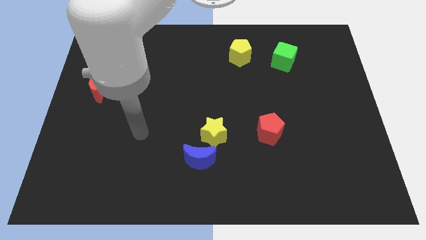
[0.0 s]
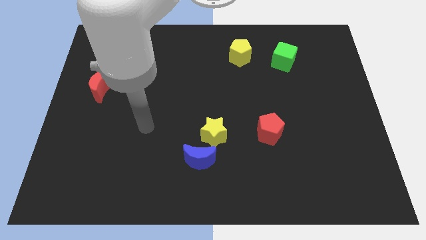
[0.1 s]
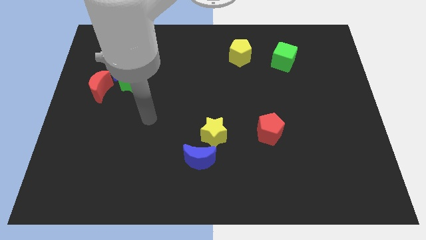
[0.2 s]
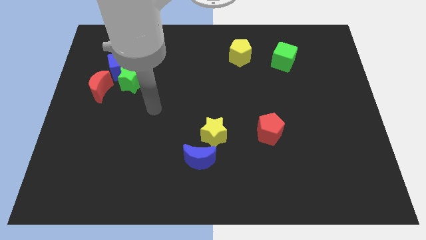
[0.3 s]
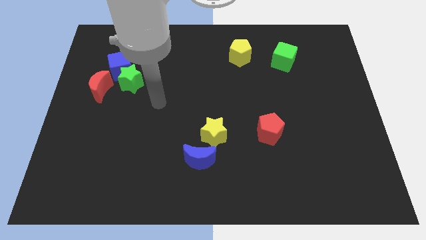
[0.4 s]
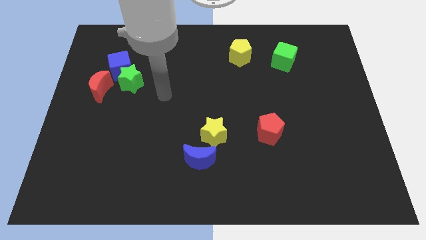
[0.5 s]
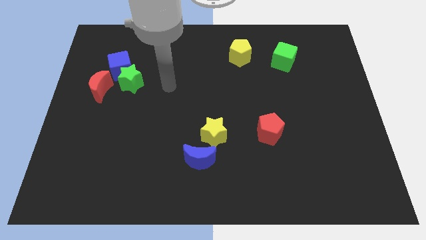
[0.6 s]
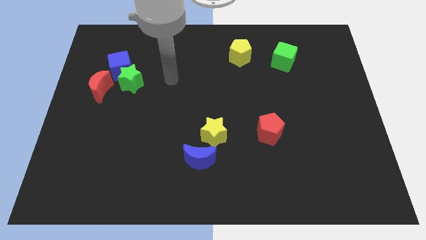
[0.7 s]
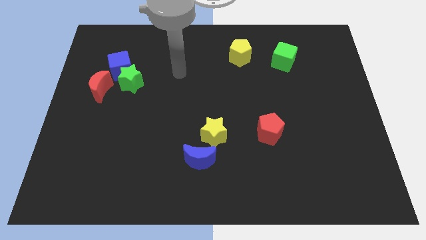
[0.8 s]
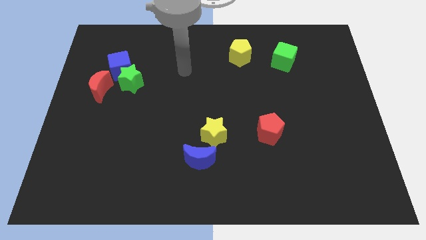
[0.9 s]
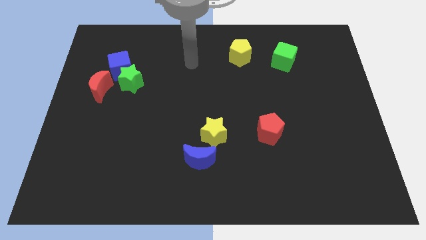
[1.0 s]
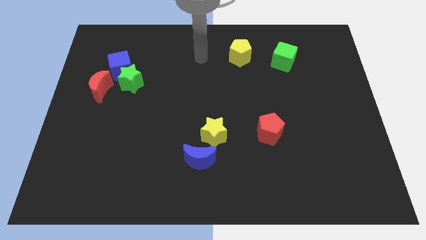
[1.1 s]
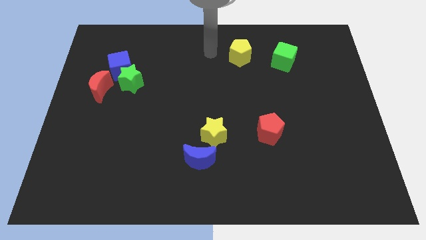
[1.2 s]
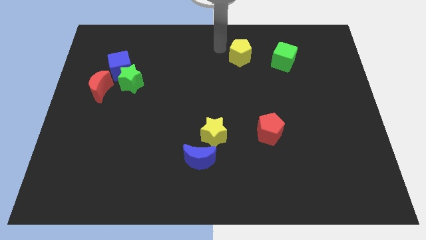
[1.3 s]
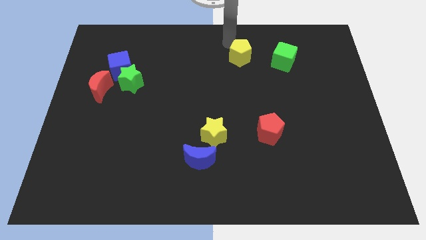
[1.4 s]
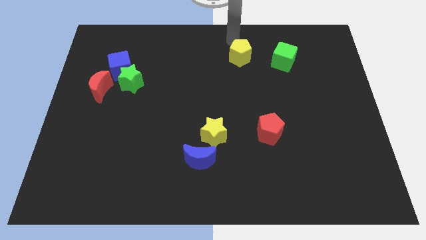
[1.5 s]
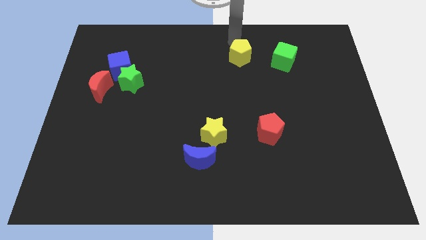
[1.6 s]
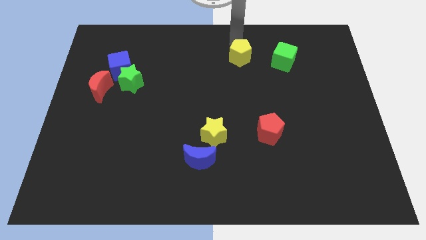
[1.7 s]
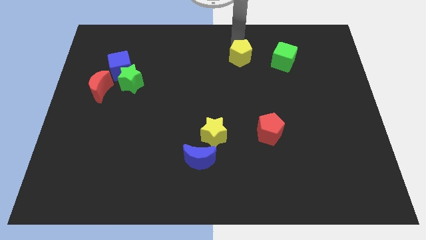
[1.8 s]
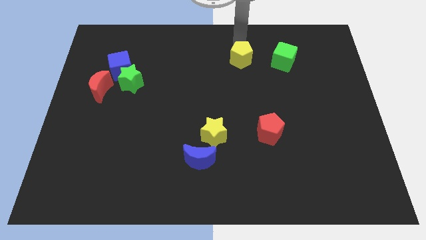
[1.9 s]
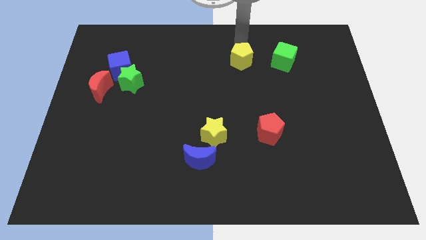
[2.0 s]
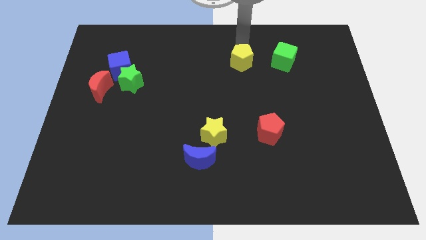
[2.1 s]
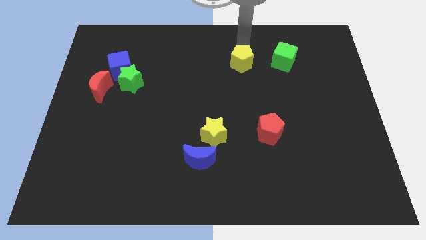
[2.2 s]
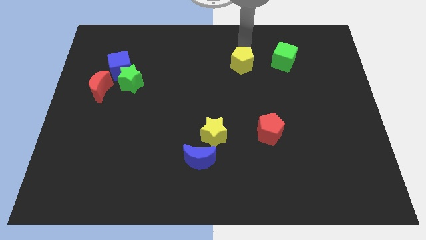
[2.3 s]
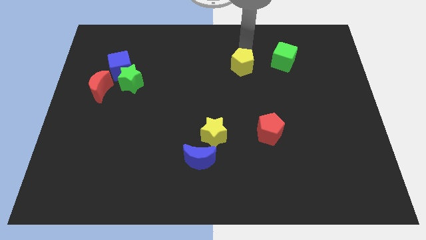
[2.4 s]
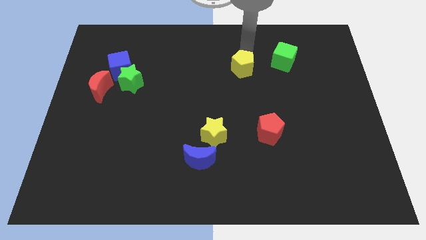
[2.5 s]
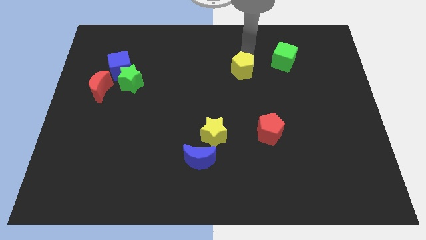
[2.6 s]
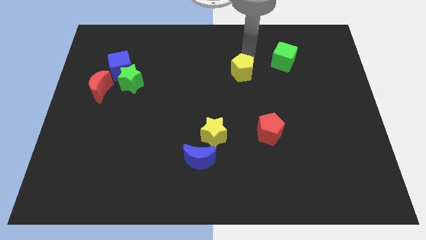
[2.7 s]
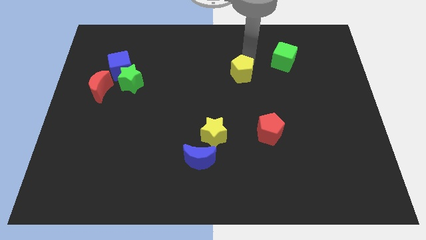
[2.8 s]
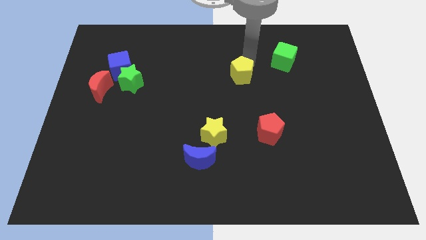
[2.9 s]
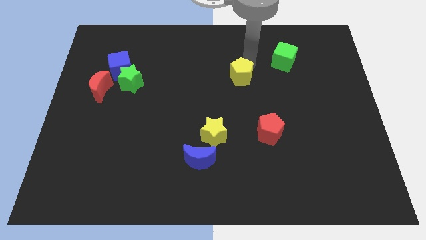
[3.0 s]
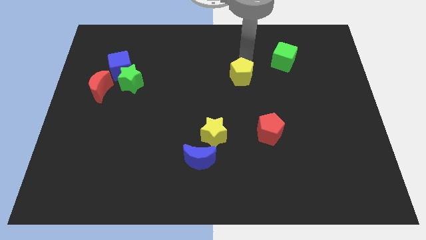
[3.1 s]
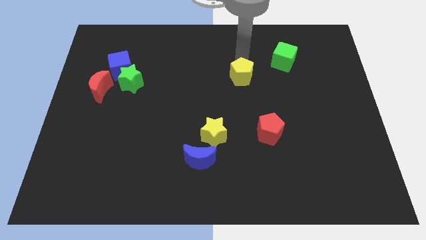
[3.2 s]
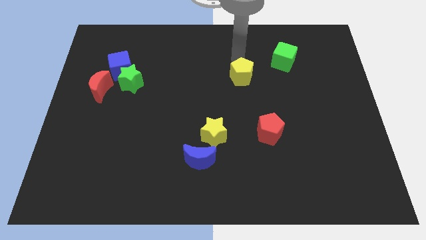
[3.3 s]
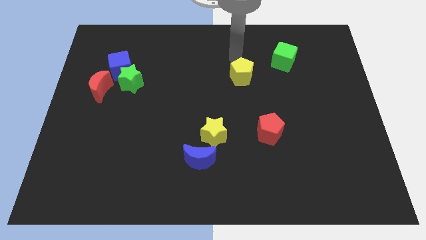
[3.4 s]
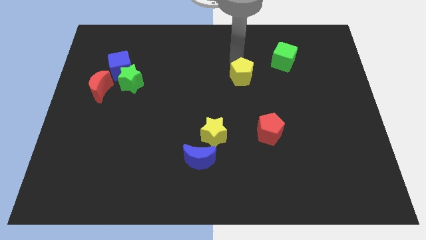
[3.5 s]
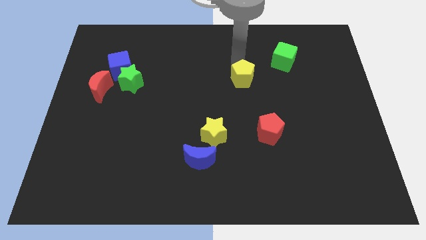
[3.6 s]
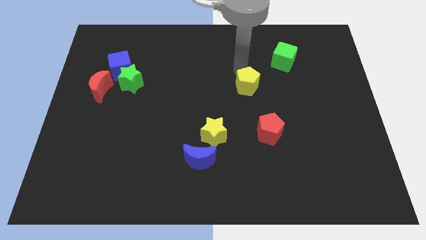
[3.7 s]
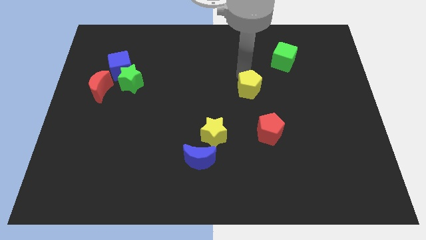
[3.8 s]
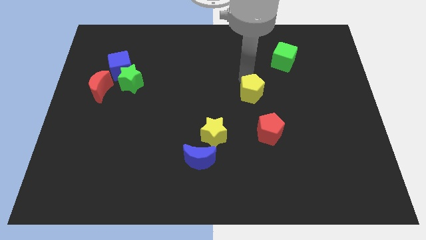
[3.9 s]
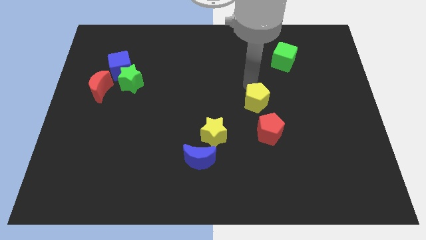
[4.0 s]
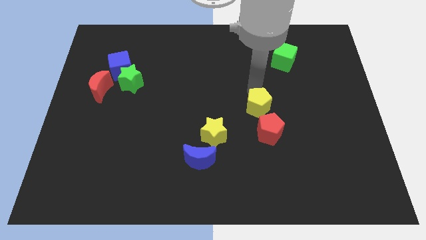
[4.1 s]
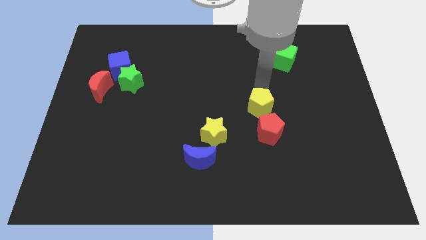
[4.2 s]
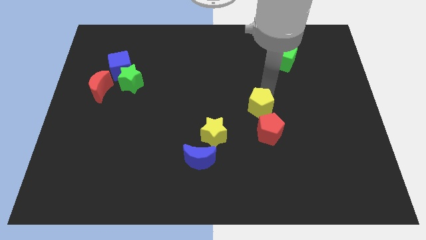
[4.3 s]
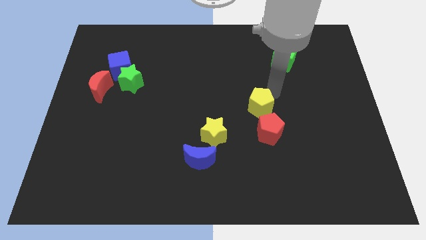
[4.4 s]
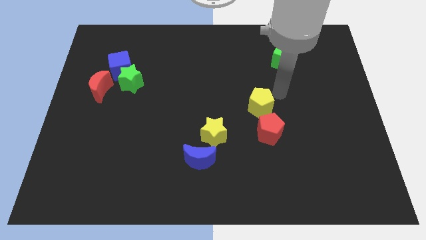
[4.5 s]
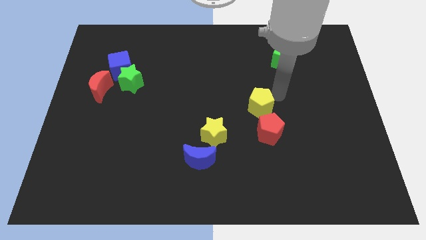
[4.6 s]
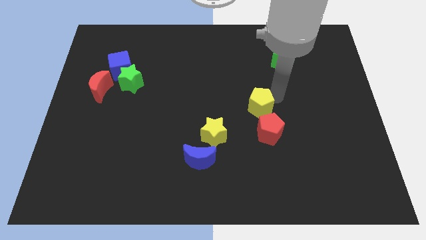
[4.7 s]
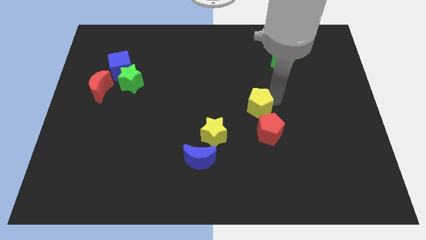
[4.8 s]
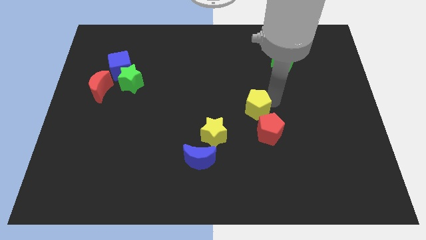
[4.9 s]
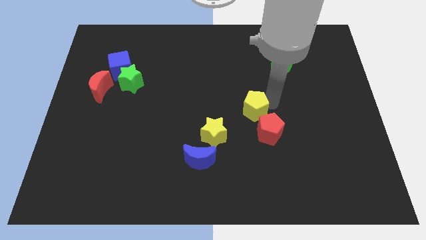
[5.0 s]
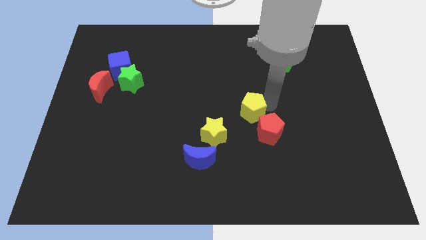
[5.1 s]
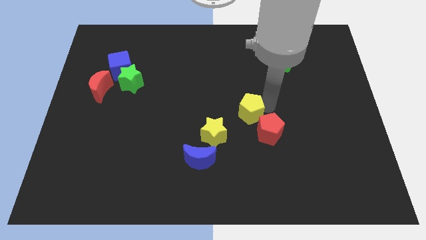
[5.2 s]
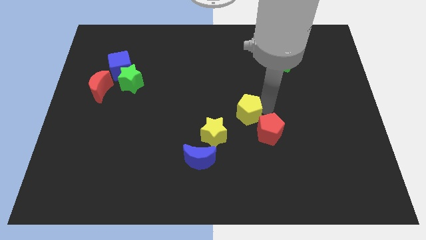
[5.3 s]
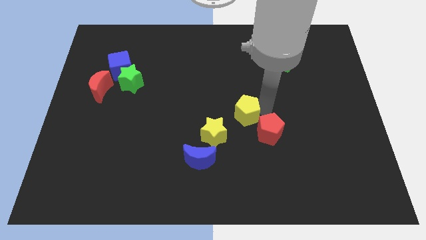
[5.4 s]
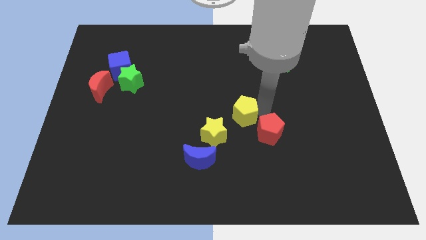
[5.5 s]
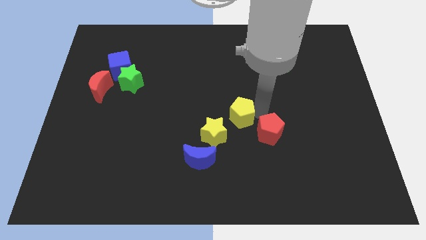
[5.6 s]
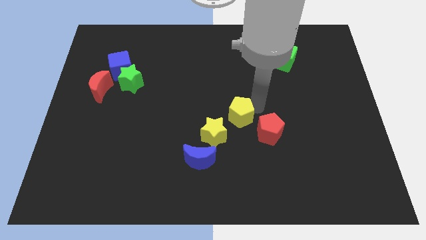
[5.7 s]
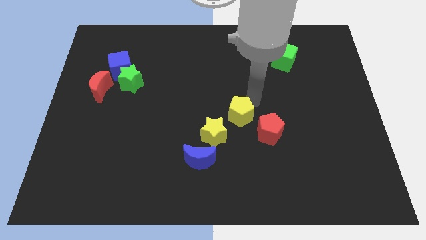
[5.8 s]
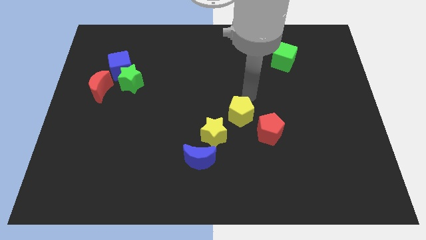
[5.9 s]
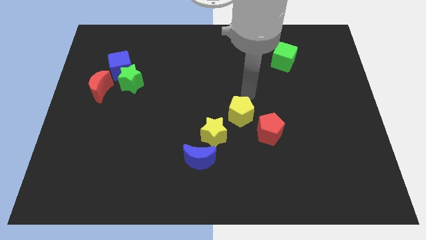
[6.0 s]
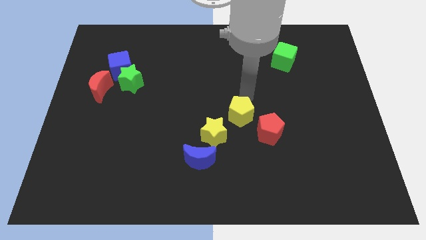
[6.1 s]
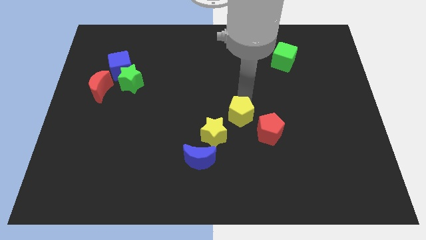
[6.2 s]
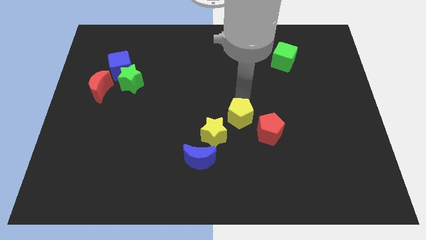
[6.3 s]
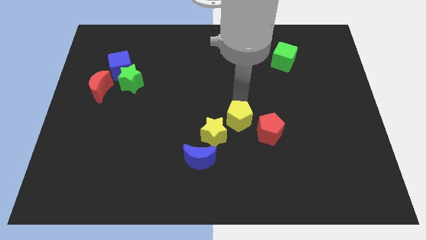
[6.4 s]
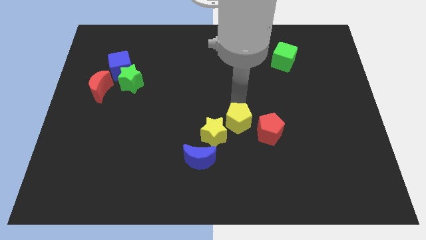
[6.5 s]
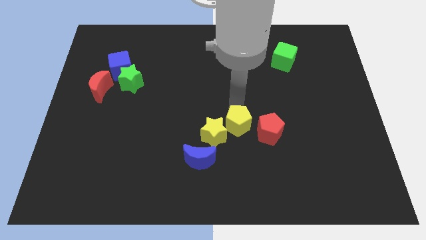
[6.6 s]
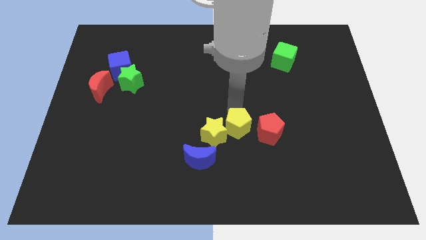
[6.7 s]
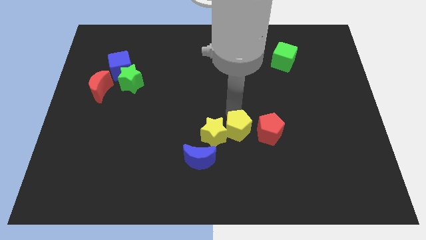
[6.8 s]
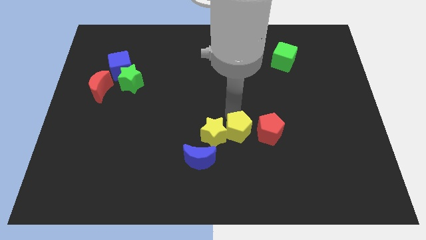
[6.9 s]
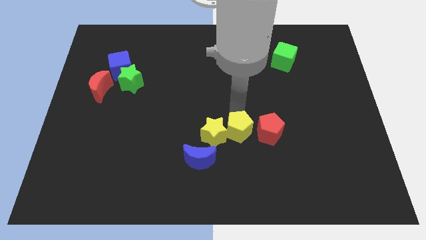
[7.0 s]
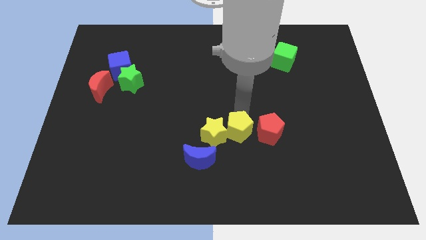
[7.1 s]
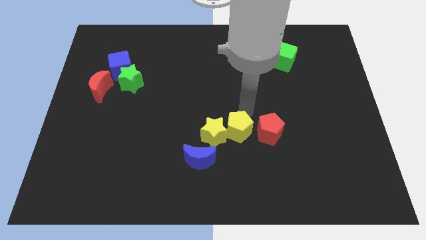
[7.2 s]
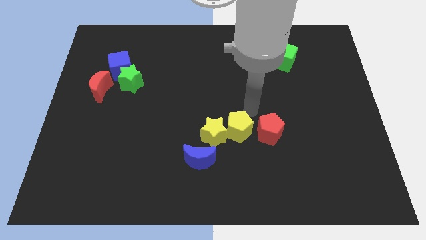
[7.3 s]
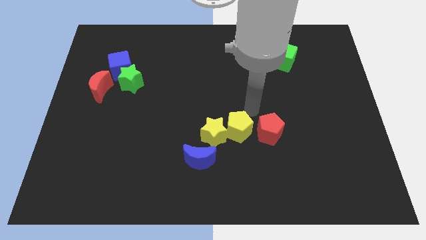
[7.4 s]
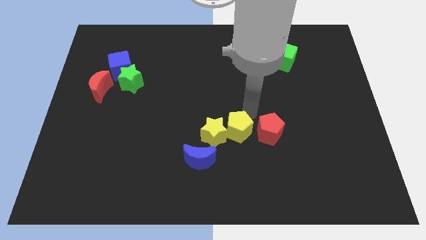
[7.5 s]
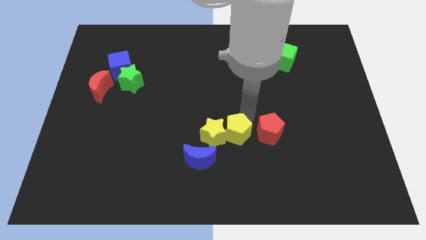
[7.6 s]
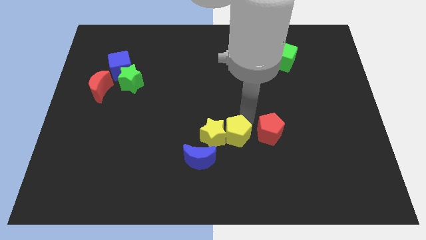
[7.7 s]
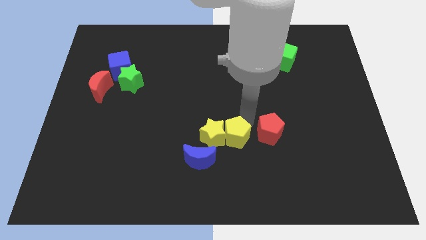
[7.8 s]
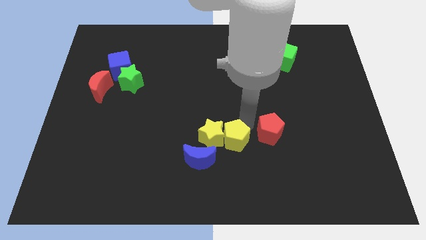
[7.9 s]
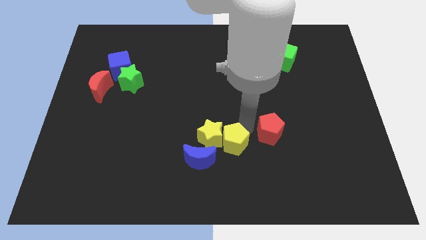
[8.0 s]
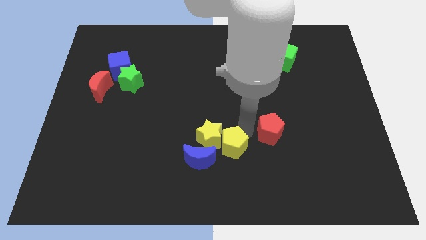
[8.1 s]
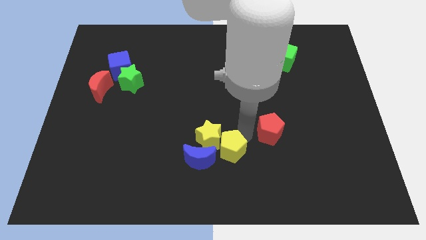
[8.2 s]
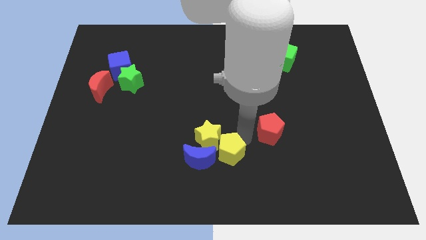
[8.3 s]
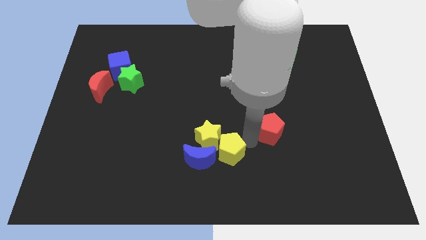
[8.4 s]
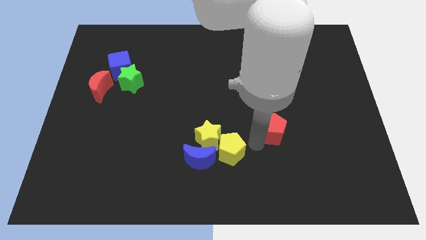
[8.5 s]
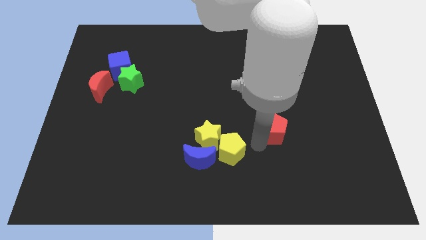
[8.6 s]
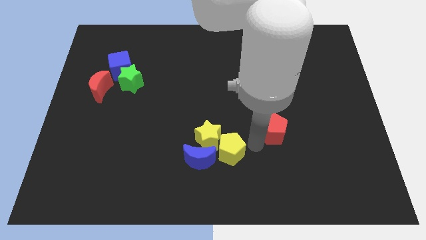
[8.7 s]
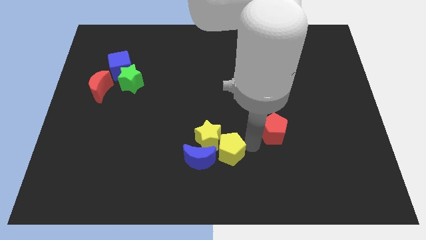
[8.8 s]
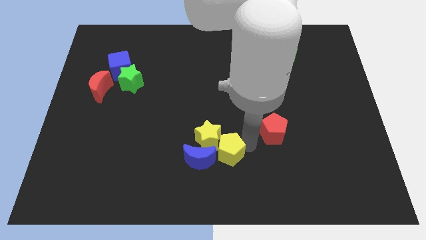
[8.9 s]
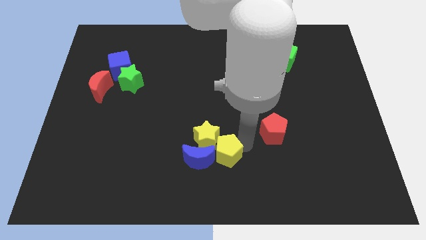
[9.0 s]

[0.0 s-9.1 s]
put the yellow pentagon to the blue moon
